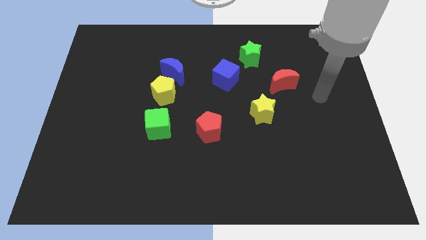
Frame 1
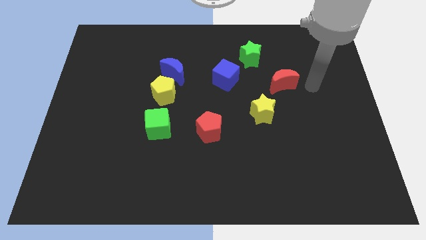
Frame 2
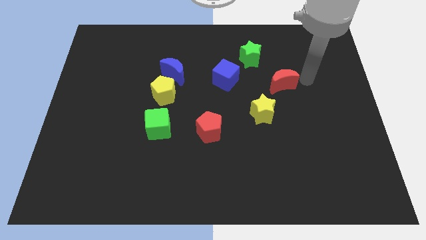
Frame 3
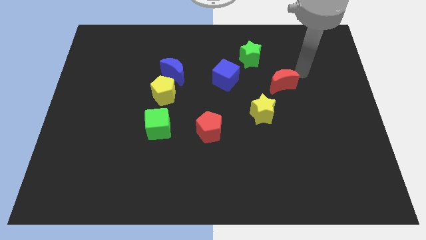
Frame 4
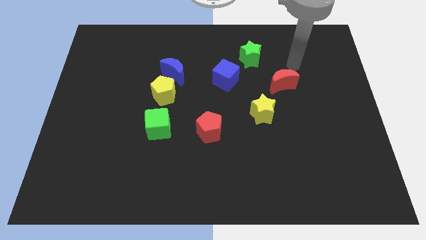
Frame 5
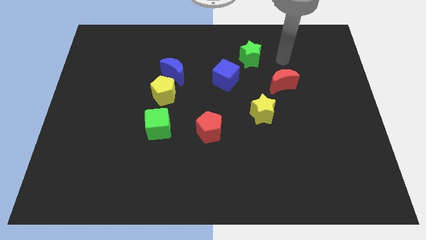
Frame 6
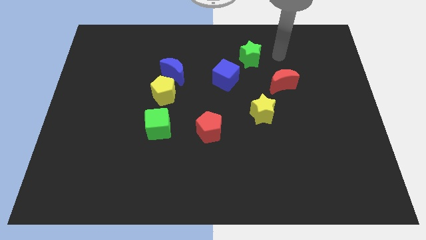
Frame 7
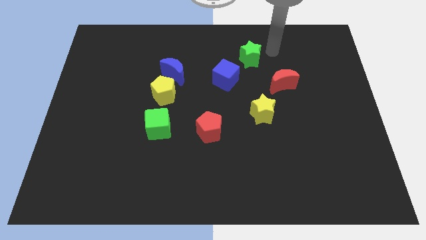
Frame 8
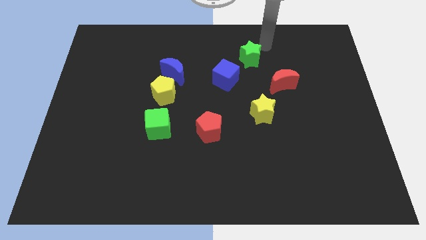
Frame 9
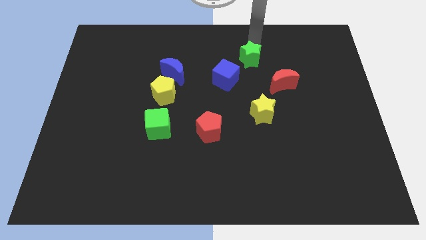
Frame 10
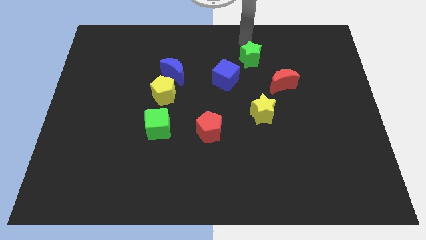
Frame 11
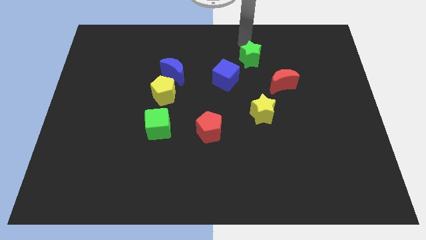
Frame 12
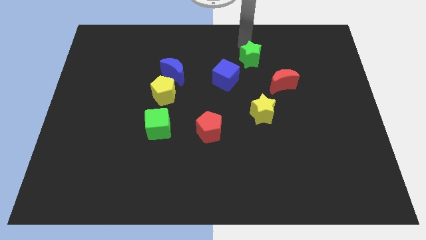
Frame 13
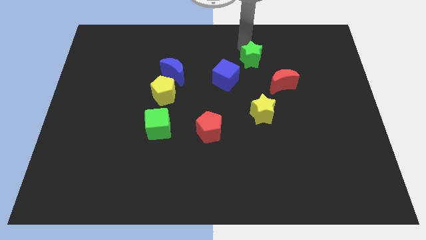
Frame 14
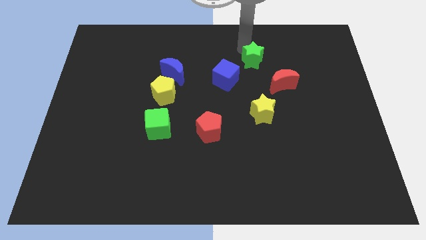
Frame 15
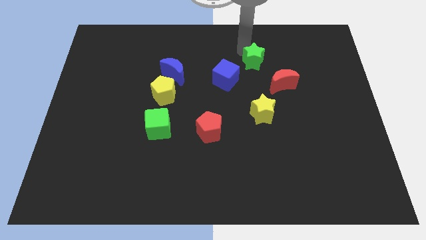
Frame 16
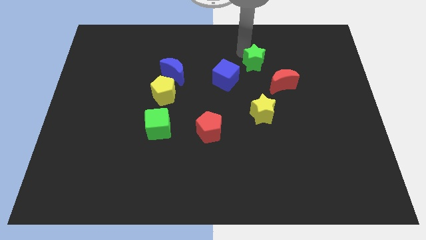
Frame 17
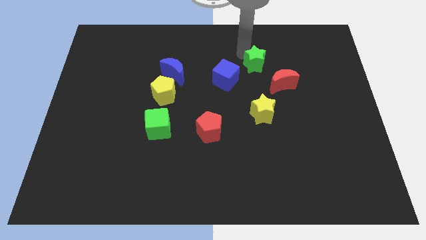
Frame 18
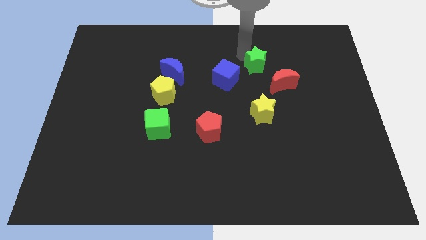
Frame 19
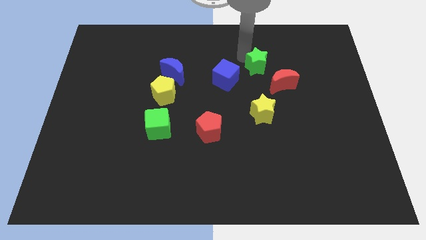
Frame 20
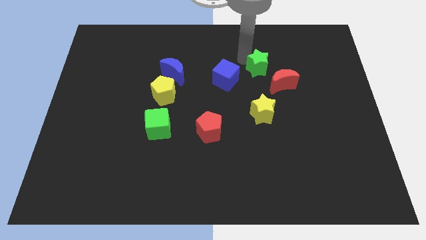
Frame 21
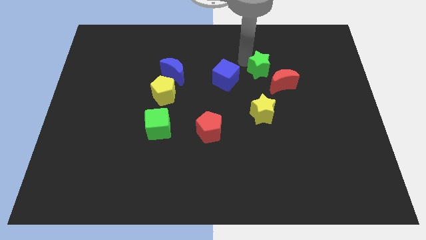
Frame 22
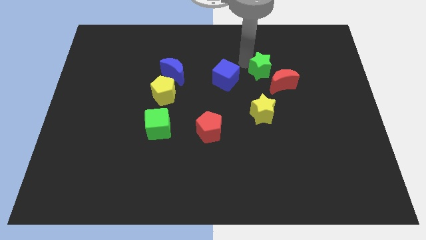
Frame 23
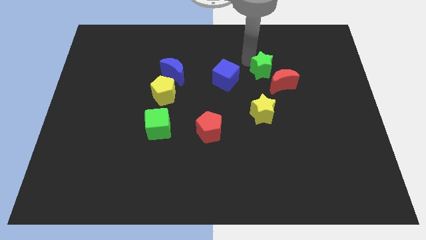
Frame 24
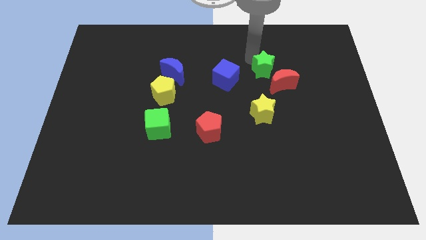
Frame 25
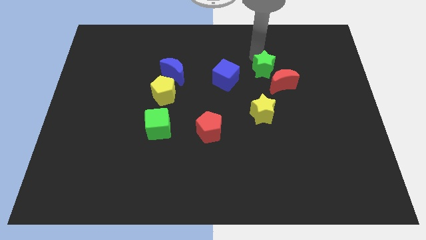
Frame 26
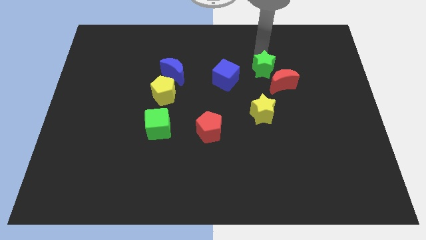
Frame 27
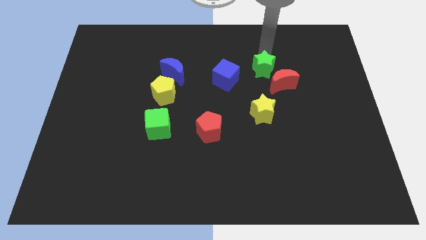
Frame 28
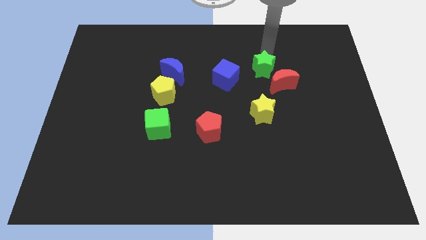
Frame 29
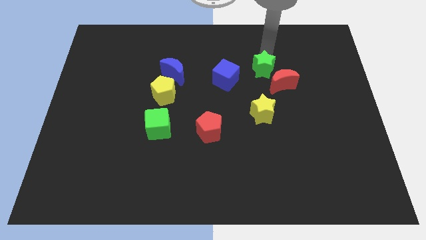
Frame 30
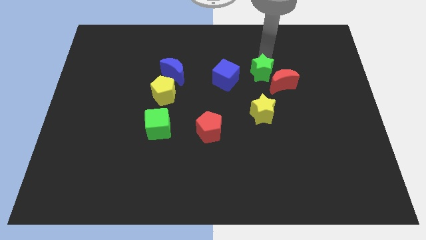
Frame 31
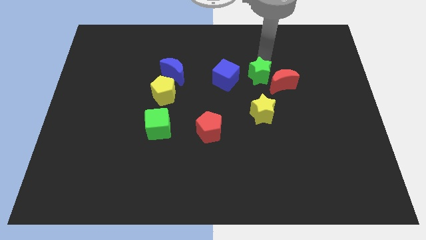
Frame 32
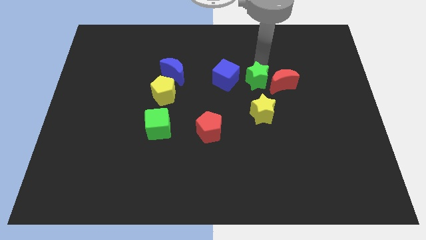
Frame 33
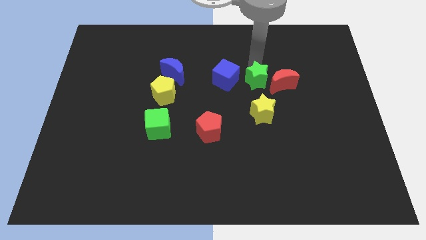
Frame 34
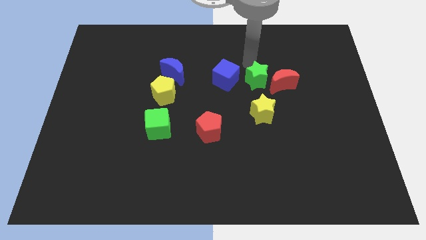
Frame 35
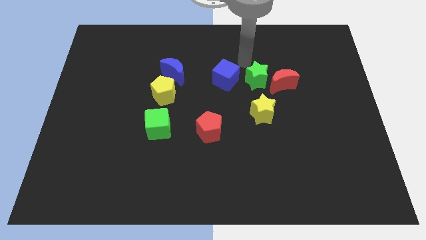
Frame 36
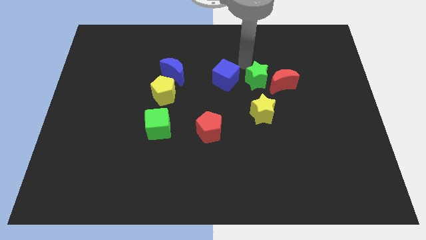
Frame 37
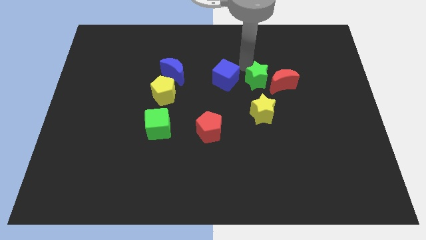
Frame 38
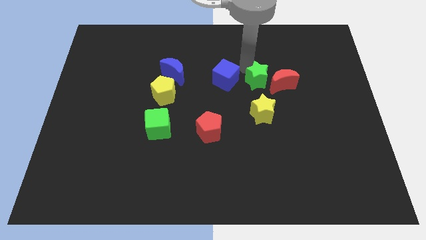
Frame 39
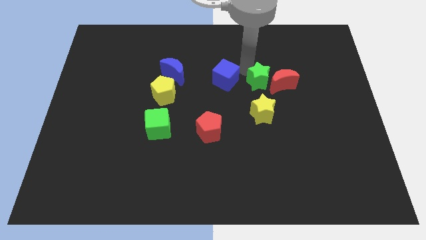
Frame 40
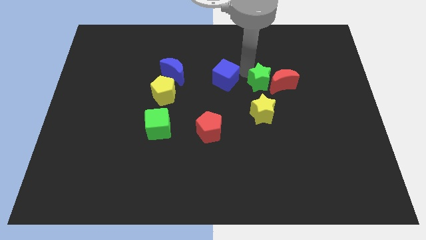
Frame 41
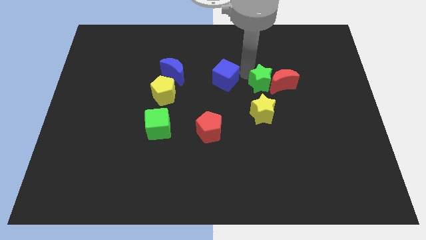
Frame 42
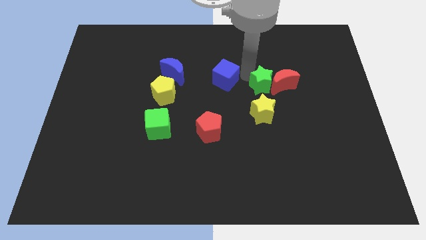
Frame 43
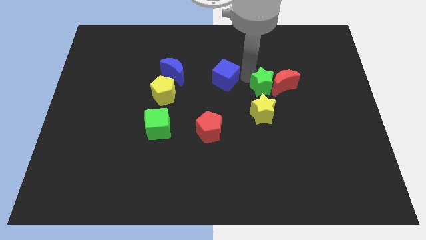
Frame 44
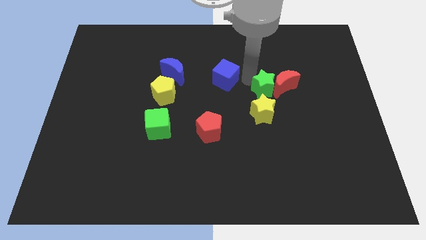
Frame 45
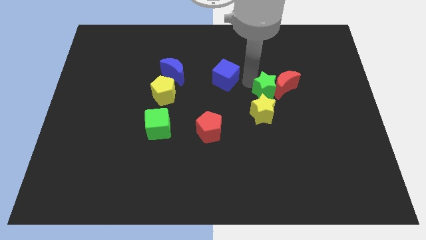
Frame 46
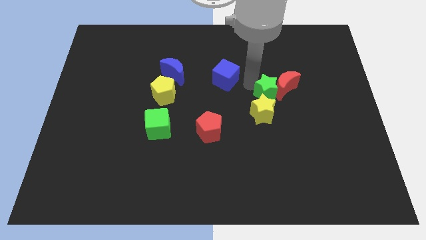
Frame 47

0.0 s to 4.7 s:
move the green star next to the yellow star

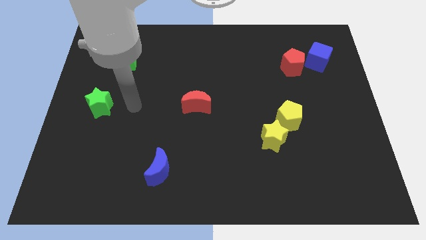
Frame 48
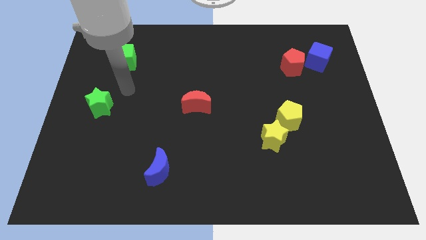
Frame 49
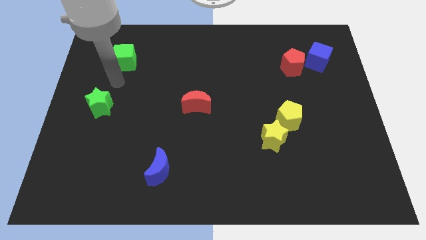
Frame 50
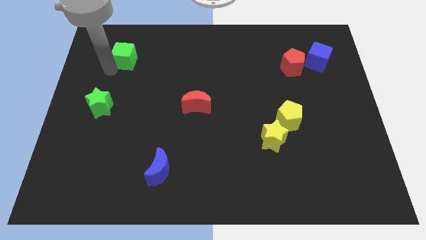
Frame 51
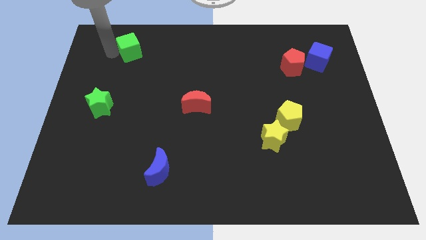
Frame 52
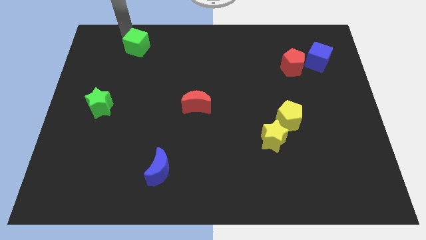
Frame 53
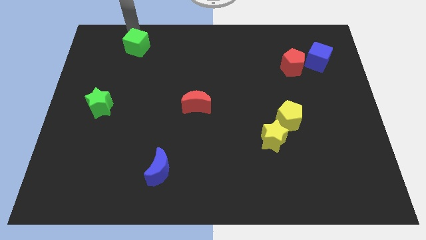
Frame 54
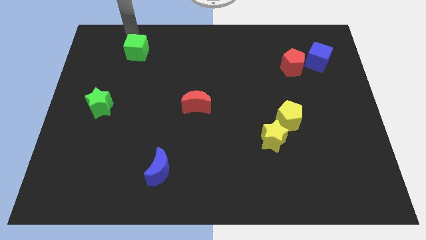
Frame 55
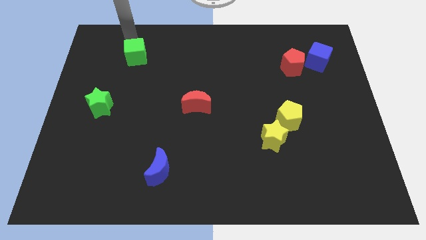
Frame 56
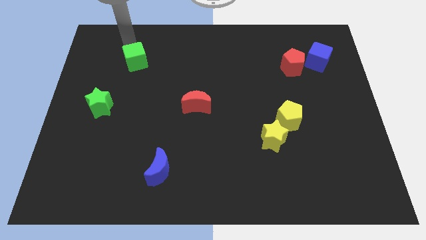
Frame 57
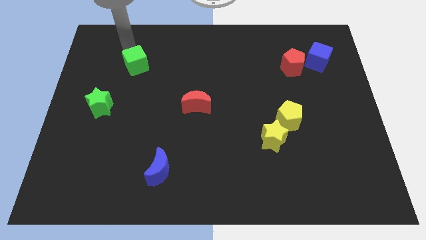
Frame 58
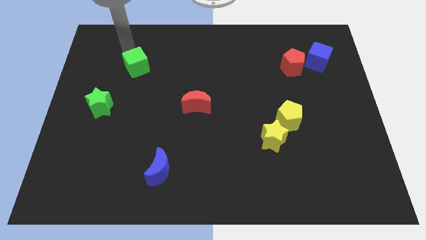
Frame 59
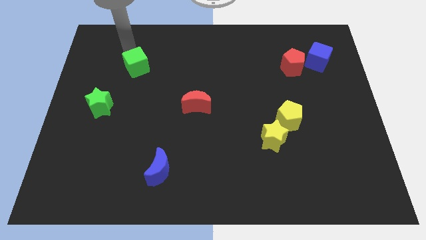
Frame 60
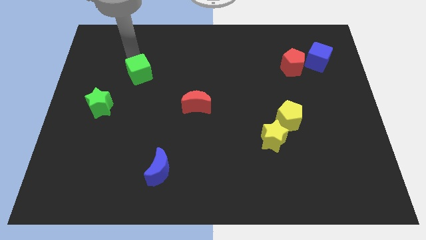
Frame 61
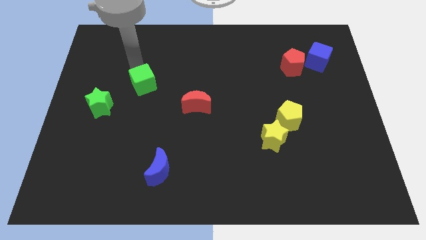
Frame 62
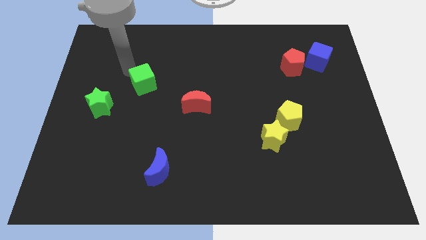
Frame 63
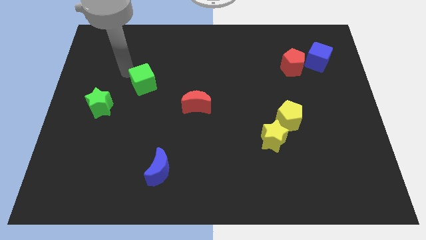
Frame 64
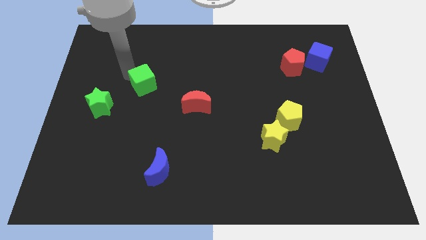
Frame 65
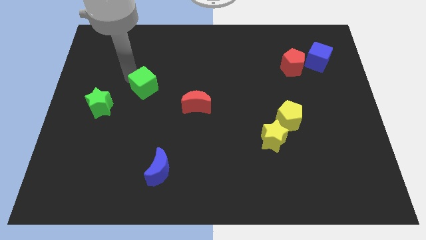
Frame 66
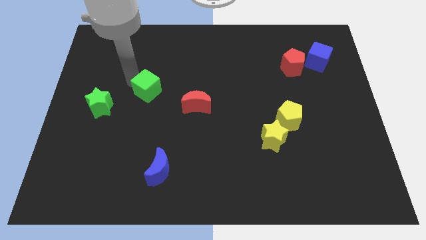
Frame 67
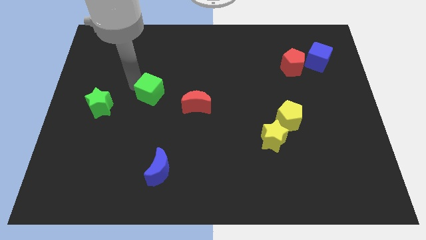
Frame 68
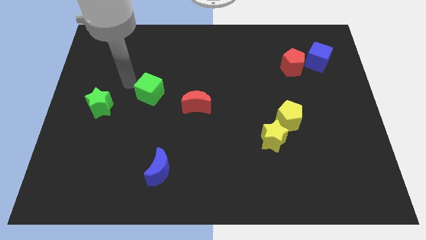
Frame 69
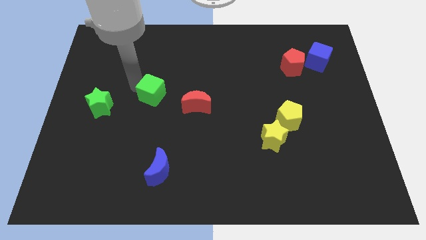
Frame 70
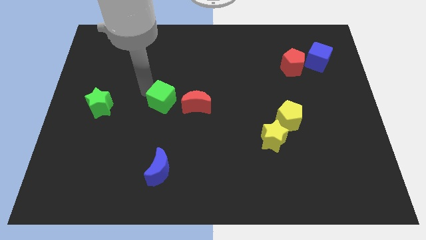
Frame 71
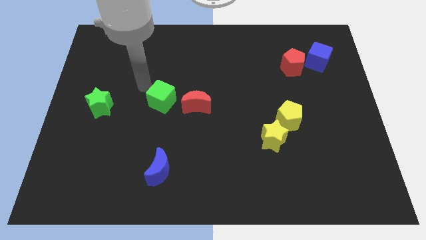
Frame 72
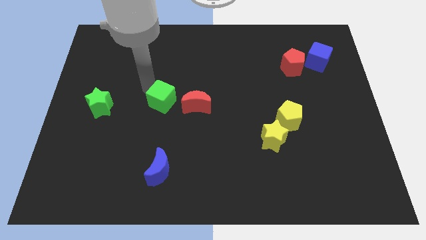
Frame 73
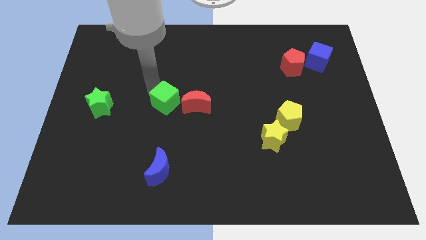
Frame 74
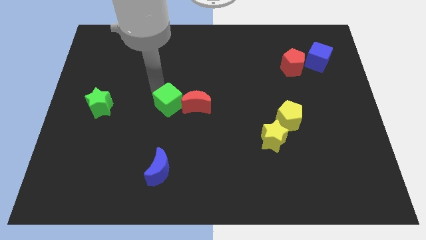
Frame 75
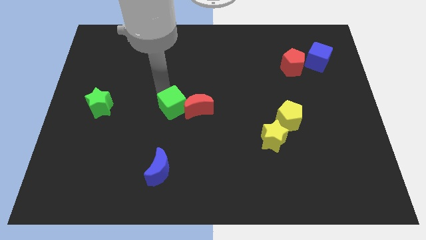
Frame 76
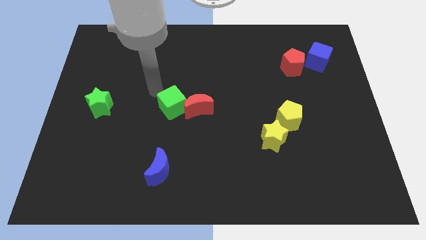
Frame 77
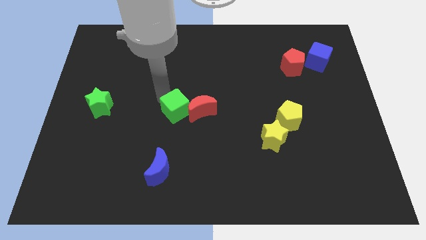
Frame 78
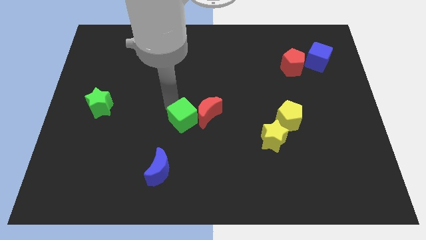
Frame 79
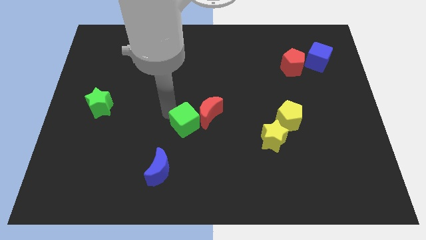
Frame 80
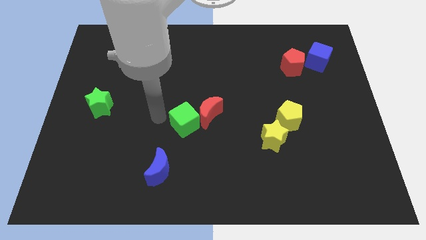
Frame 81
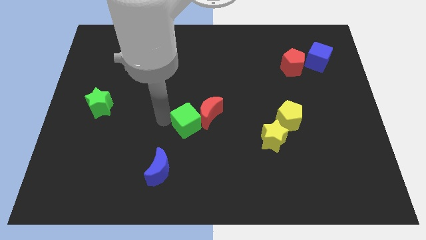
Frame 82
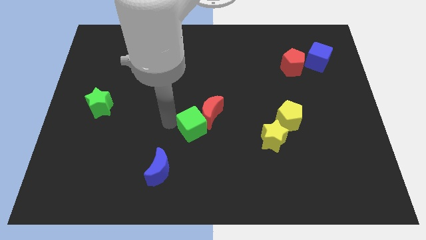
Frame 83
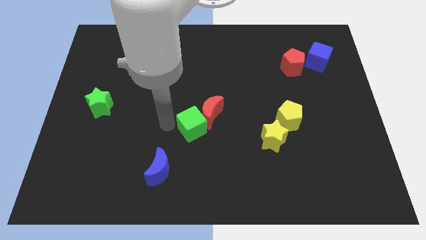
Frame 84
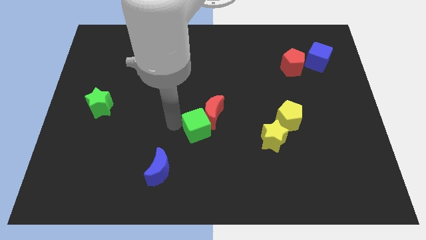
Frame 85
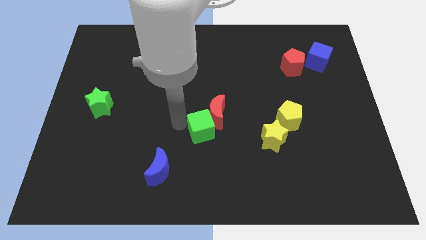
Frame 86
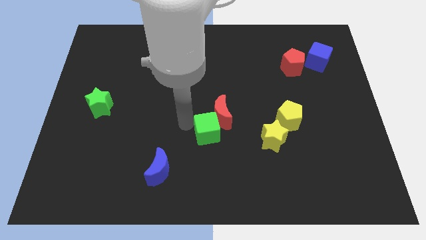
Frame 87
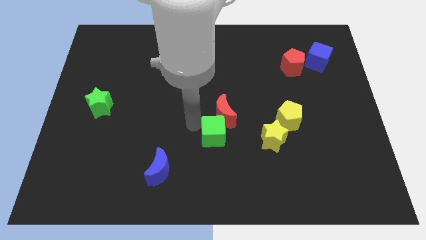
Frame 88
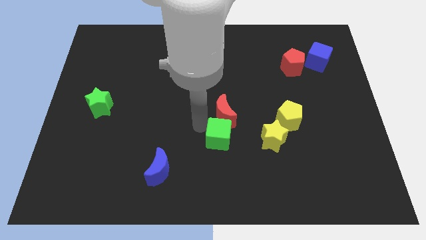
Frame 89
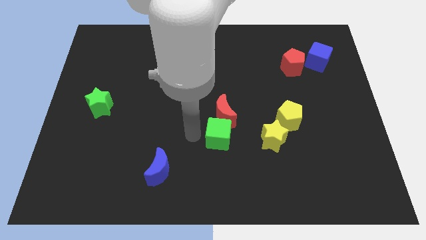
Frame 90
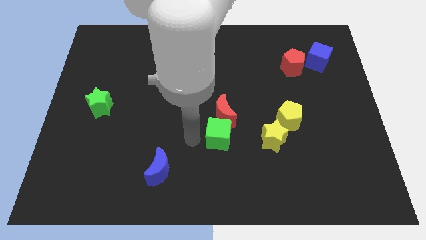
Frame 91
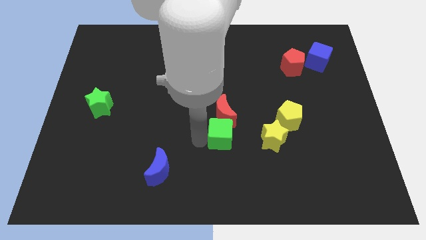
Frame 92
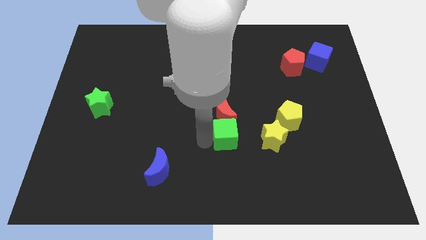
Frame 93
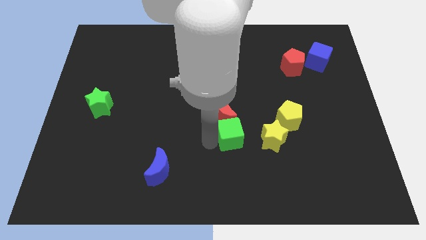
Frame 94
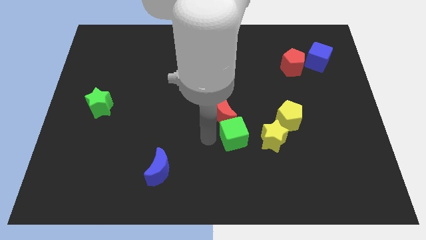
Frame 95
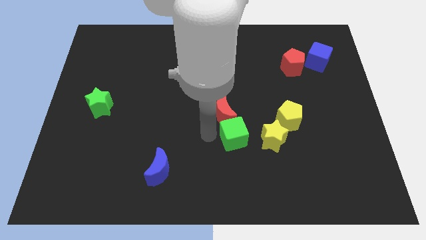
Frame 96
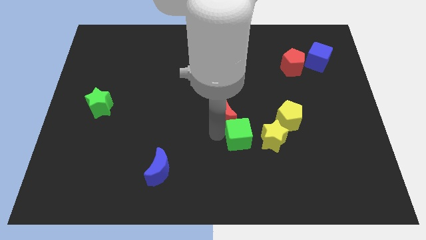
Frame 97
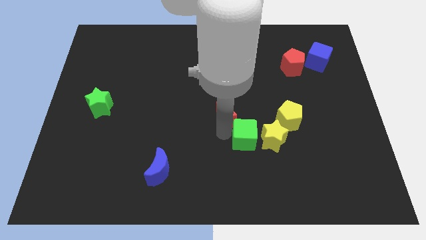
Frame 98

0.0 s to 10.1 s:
move the green cube to the yellow star
